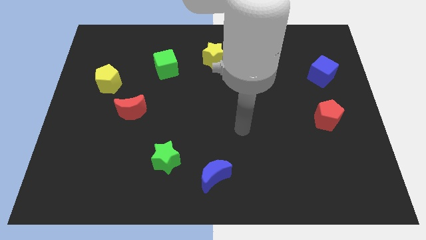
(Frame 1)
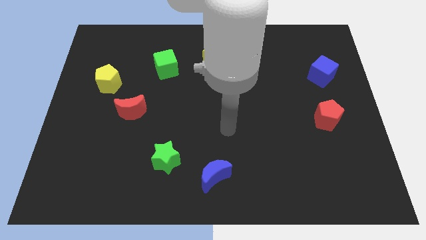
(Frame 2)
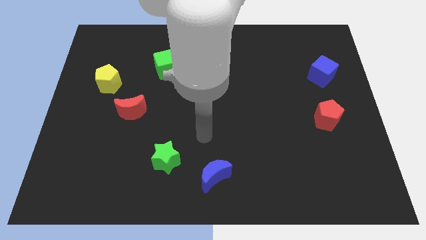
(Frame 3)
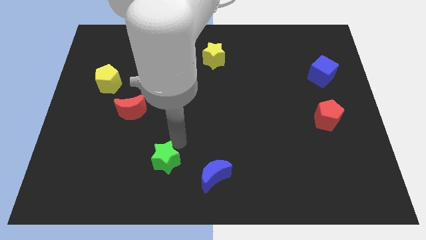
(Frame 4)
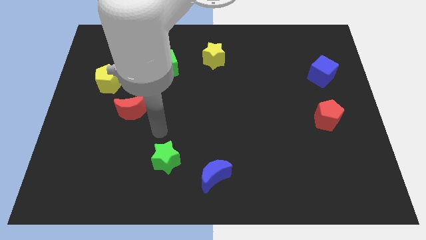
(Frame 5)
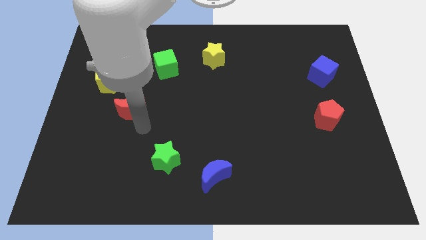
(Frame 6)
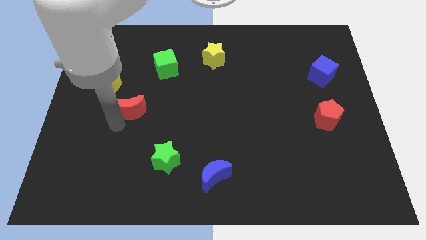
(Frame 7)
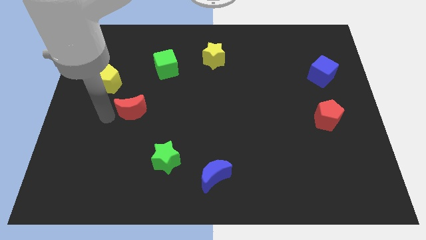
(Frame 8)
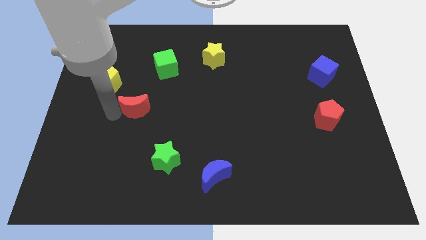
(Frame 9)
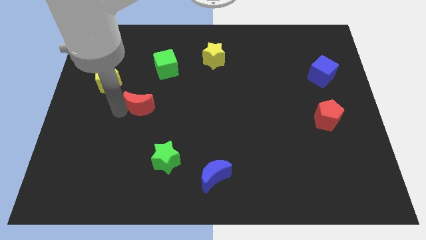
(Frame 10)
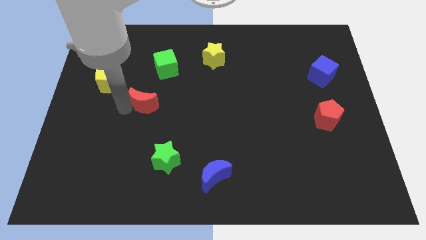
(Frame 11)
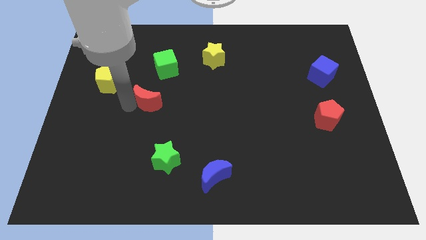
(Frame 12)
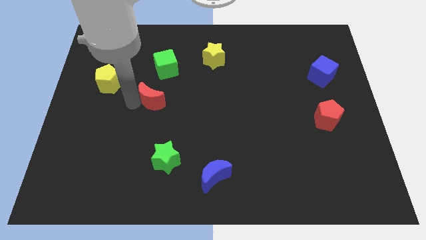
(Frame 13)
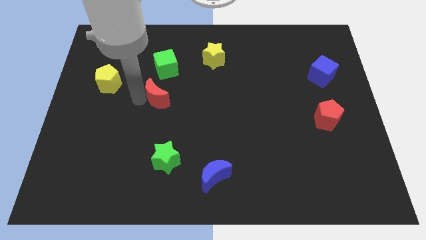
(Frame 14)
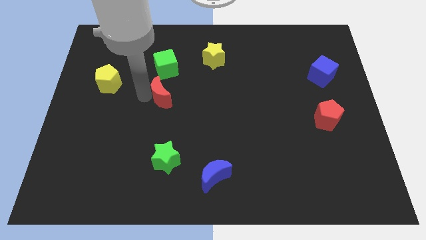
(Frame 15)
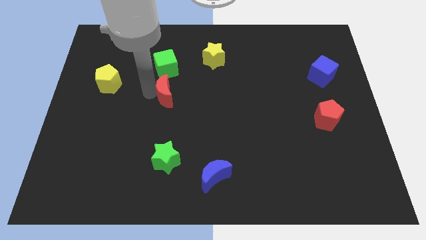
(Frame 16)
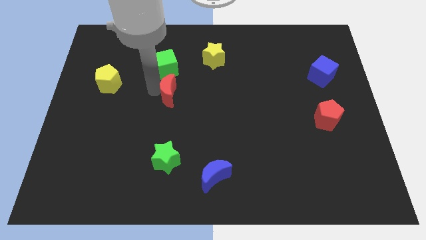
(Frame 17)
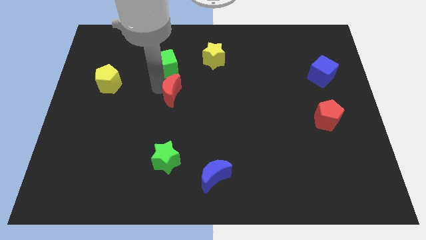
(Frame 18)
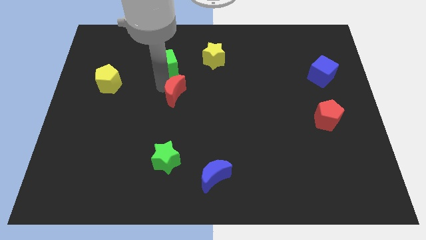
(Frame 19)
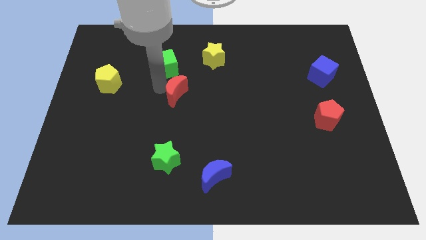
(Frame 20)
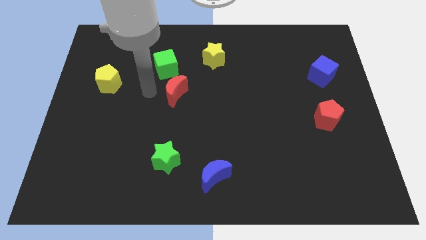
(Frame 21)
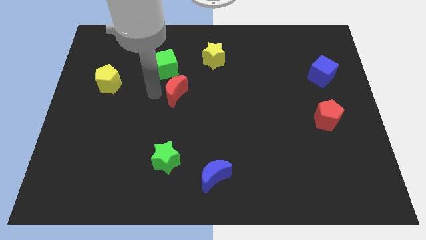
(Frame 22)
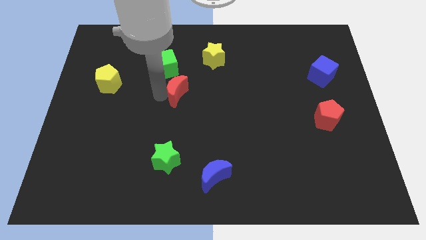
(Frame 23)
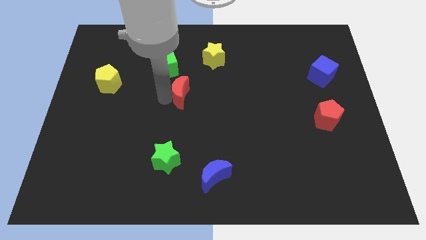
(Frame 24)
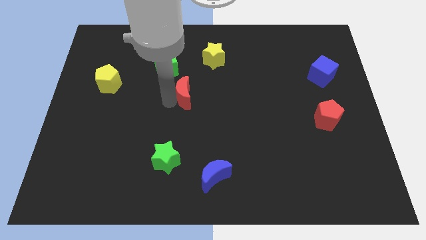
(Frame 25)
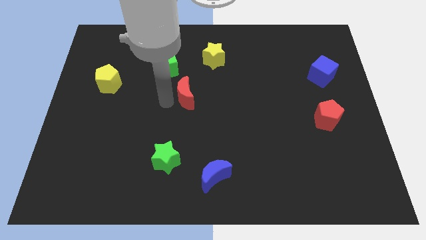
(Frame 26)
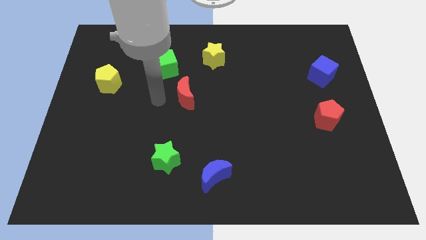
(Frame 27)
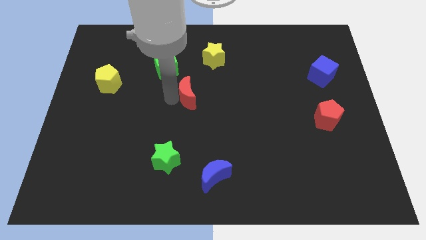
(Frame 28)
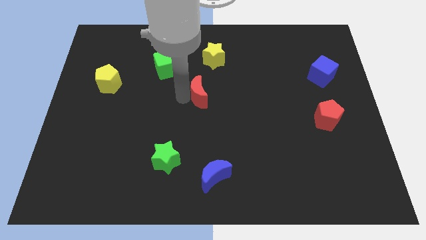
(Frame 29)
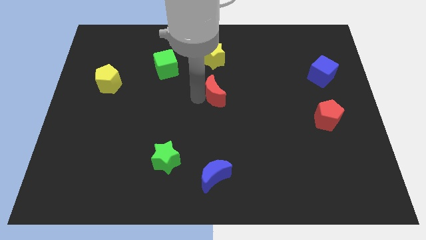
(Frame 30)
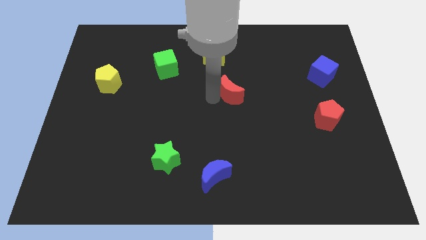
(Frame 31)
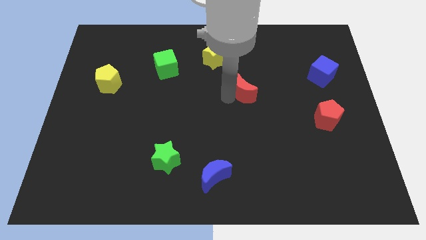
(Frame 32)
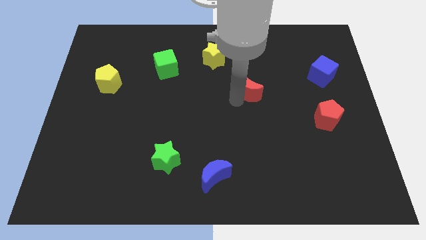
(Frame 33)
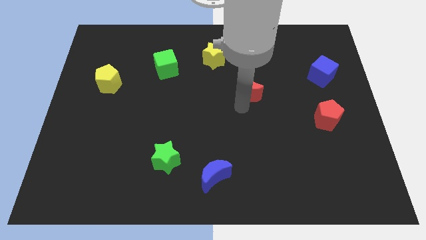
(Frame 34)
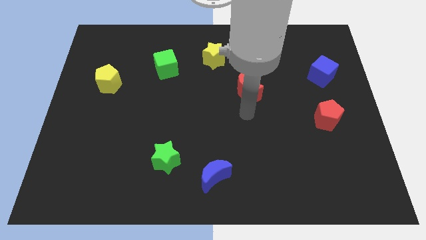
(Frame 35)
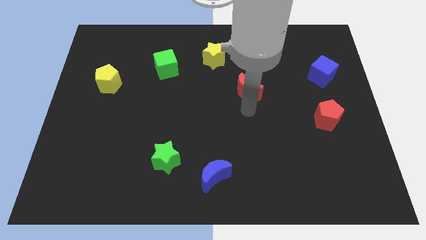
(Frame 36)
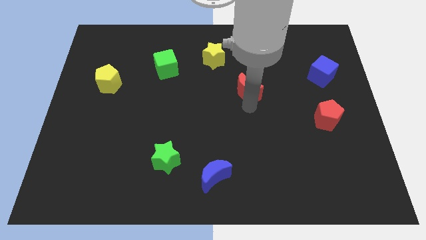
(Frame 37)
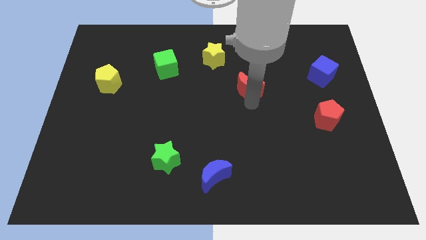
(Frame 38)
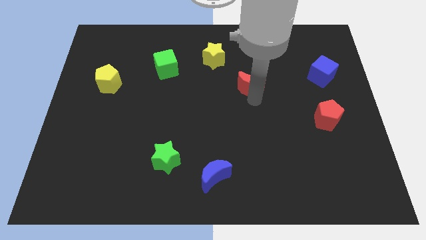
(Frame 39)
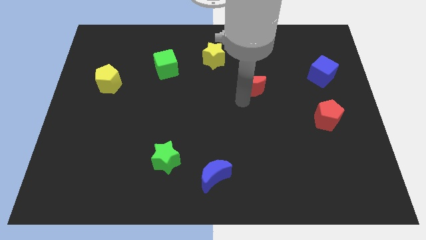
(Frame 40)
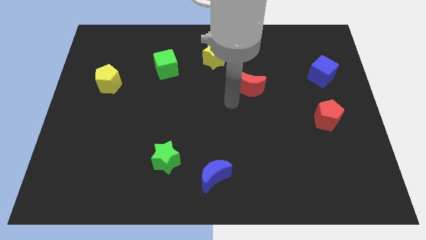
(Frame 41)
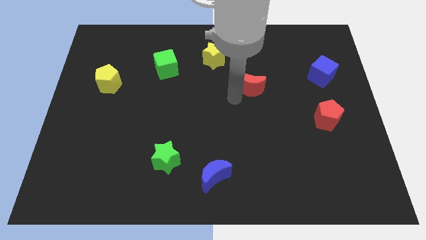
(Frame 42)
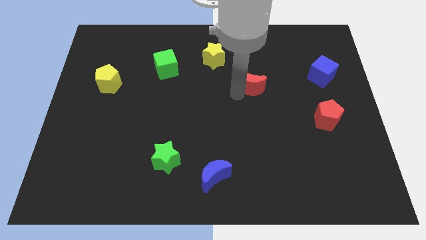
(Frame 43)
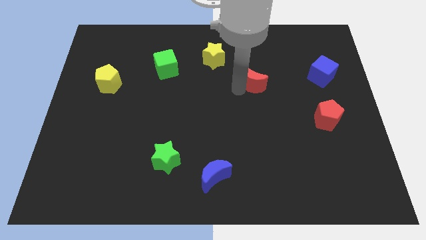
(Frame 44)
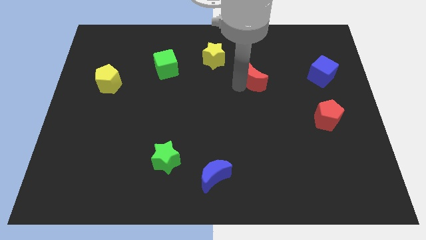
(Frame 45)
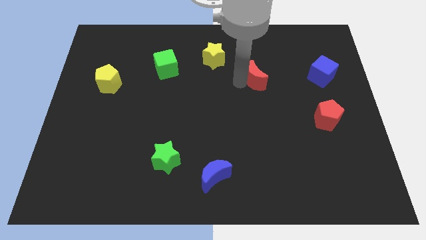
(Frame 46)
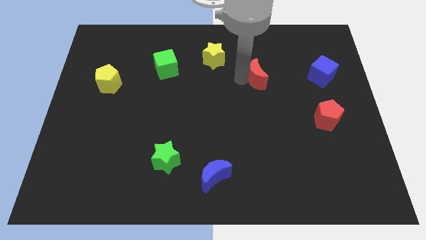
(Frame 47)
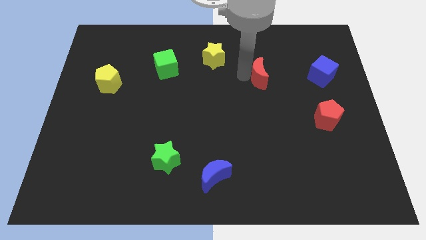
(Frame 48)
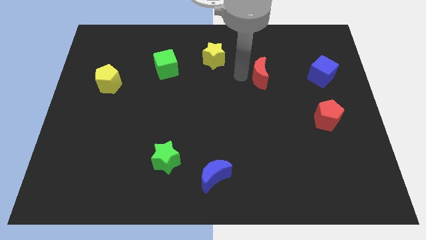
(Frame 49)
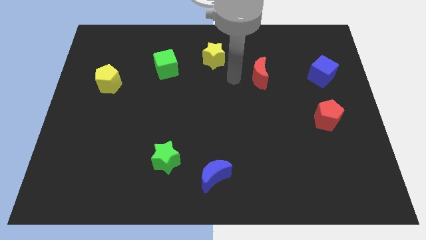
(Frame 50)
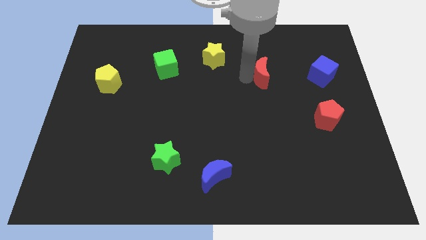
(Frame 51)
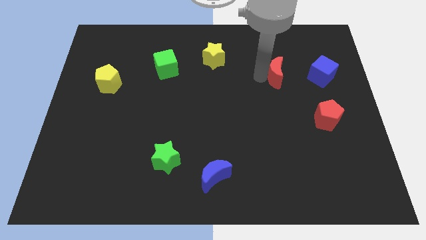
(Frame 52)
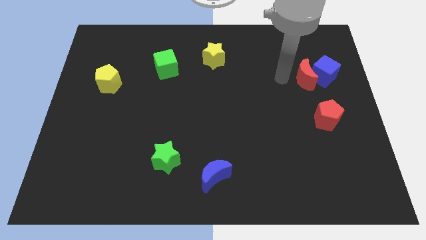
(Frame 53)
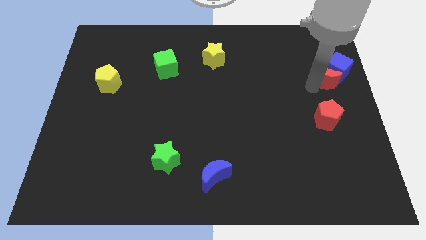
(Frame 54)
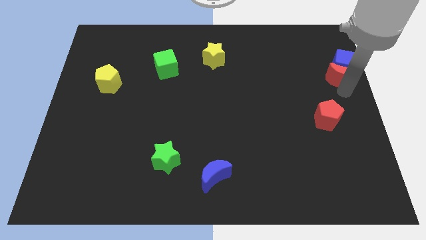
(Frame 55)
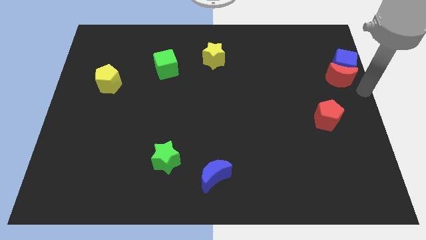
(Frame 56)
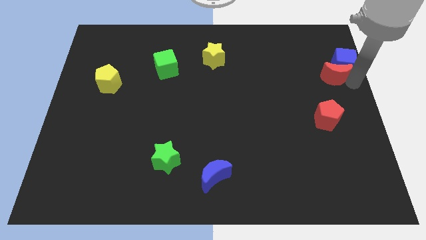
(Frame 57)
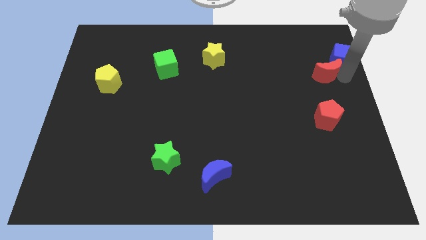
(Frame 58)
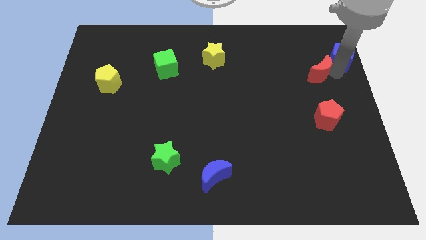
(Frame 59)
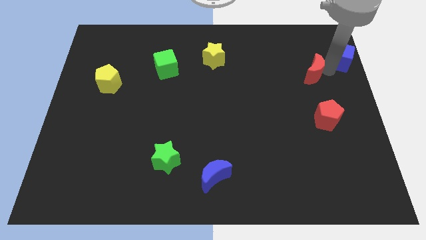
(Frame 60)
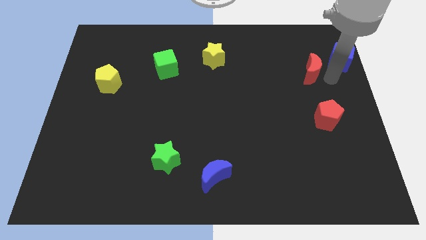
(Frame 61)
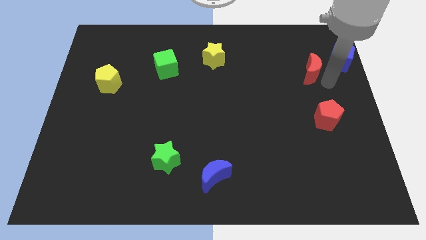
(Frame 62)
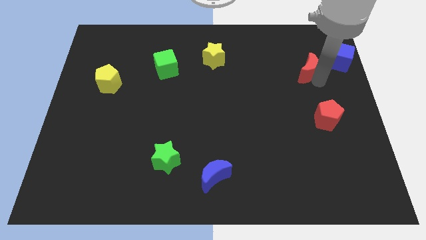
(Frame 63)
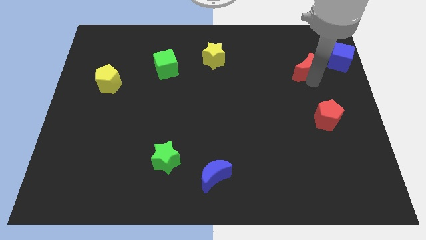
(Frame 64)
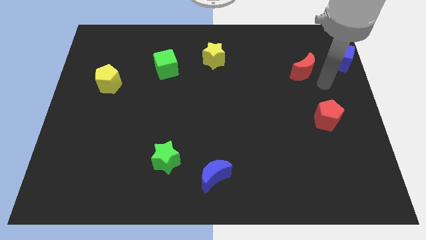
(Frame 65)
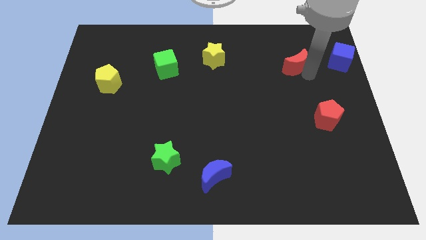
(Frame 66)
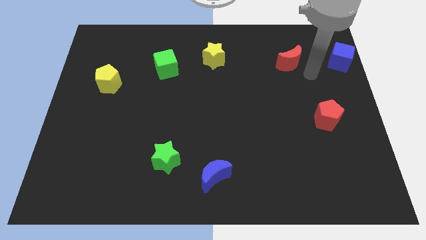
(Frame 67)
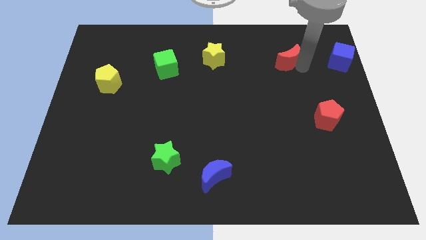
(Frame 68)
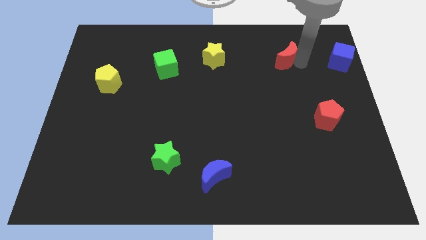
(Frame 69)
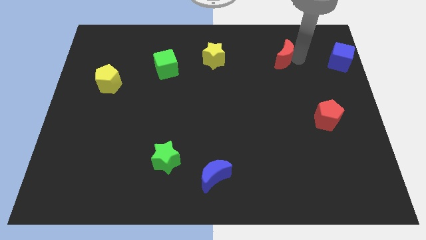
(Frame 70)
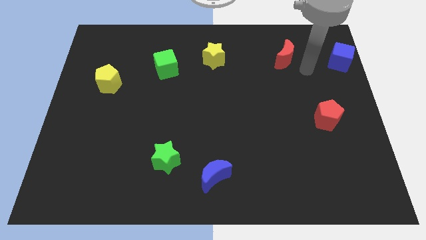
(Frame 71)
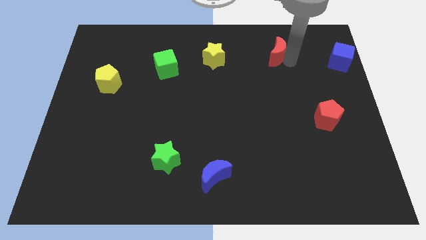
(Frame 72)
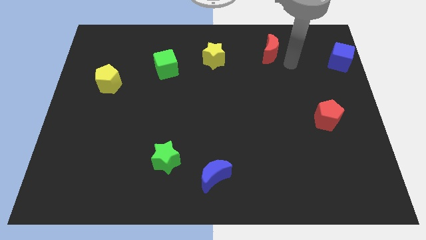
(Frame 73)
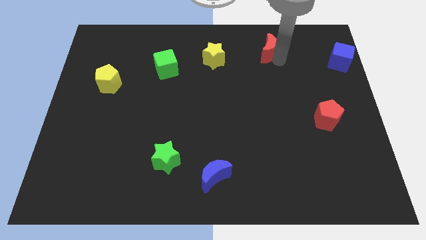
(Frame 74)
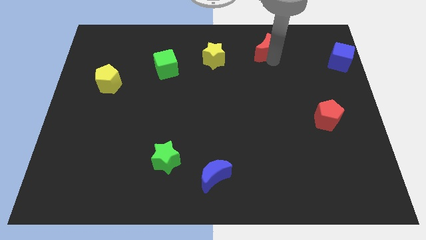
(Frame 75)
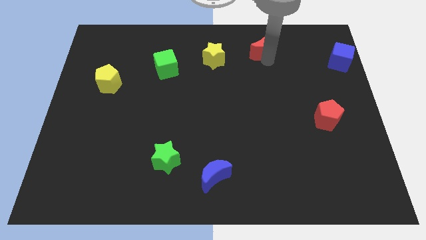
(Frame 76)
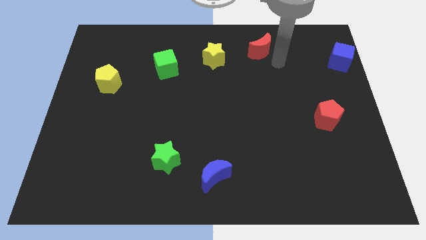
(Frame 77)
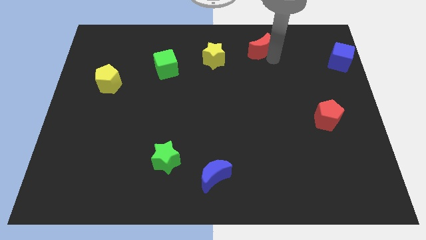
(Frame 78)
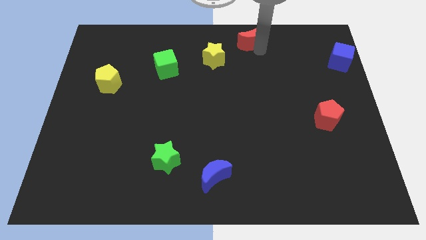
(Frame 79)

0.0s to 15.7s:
slide the red moon to the top
